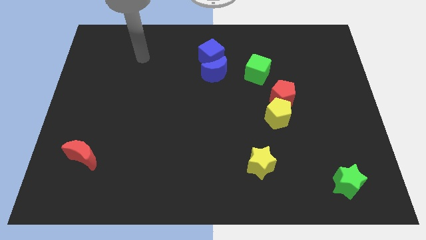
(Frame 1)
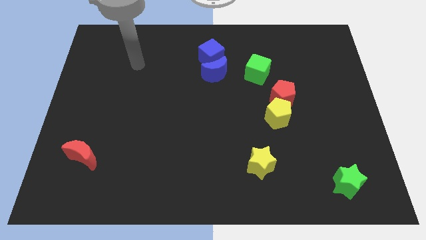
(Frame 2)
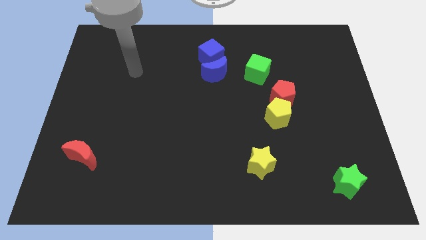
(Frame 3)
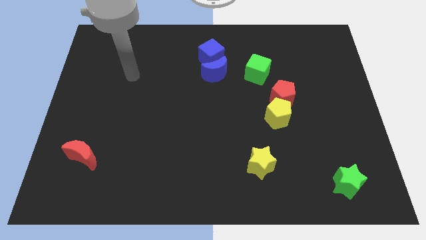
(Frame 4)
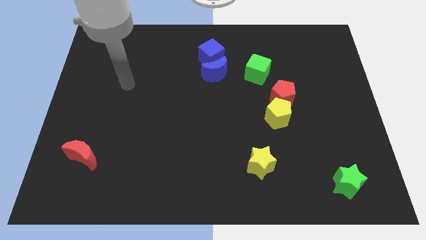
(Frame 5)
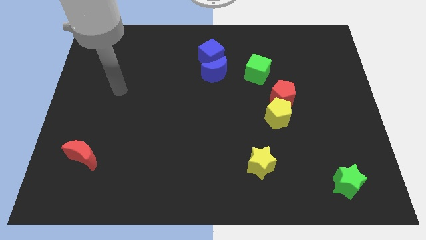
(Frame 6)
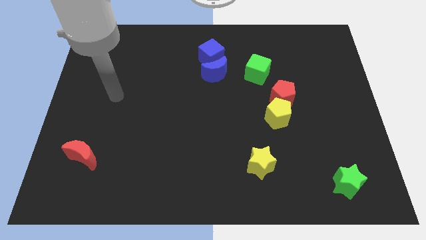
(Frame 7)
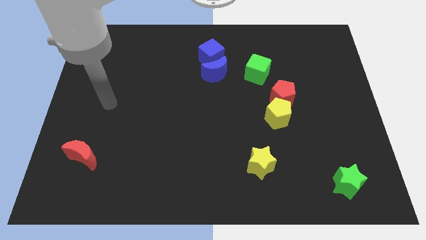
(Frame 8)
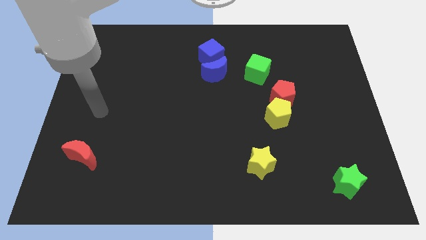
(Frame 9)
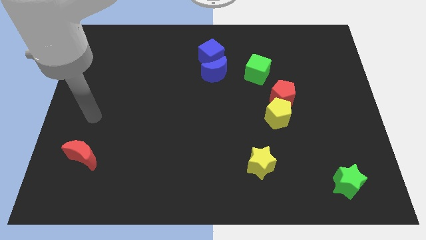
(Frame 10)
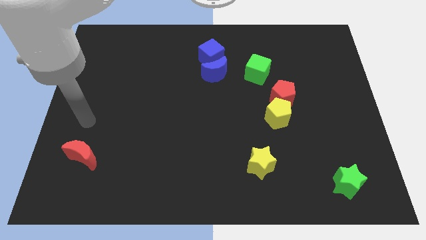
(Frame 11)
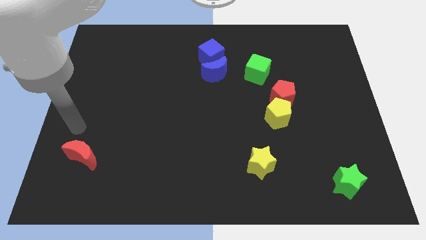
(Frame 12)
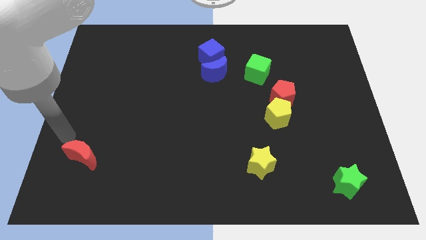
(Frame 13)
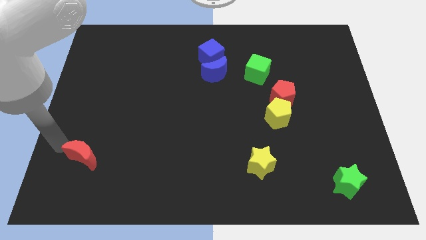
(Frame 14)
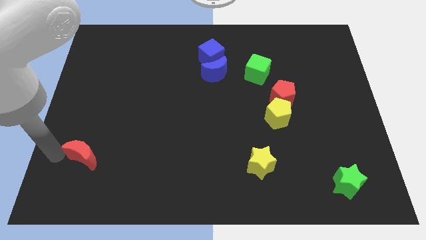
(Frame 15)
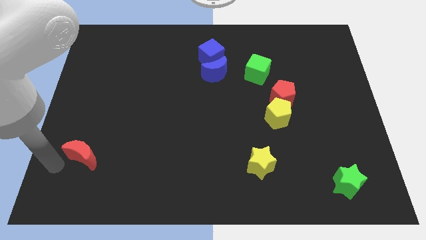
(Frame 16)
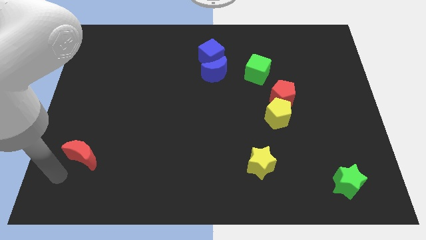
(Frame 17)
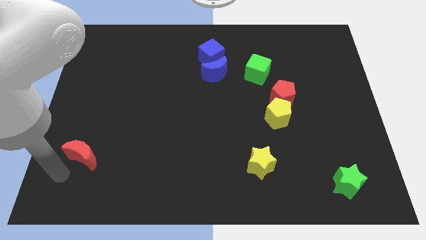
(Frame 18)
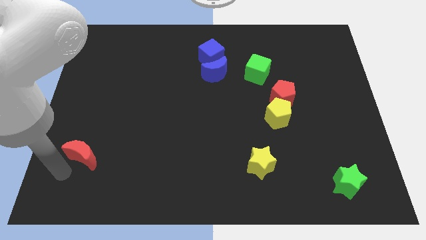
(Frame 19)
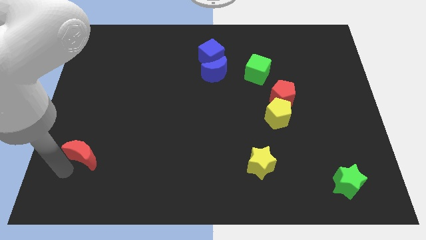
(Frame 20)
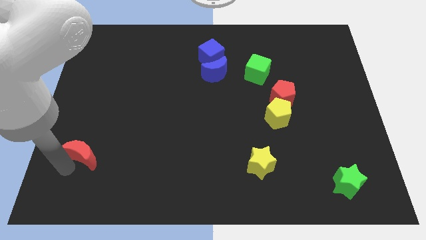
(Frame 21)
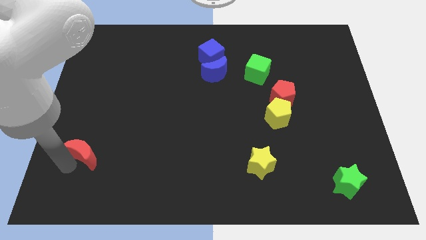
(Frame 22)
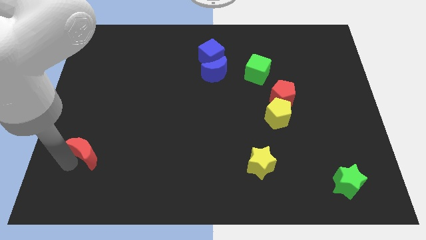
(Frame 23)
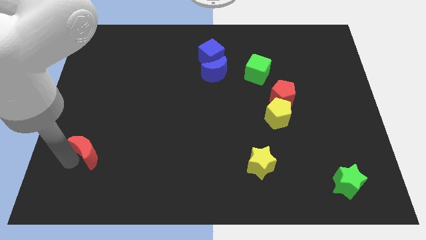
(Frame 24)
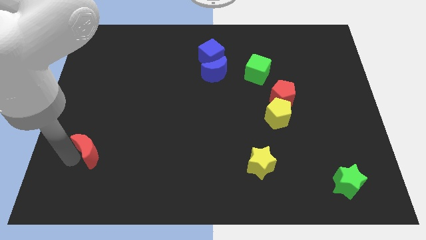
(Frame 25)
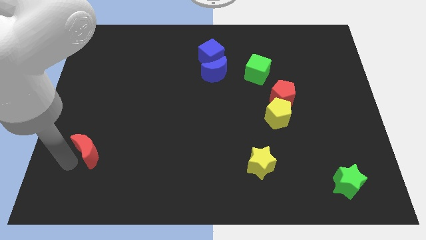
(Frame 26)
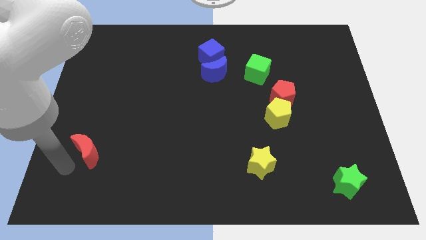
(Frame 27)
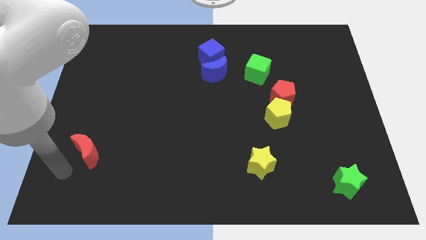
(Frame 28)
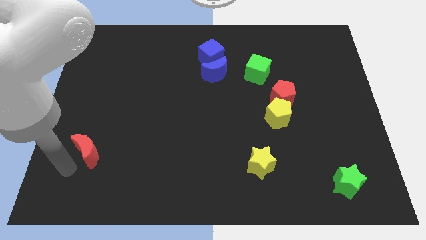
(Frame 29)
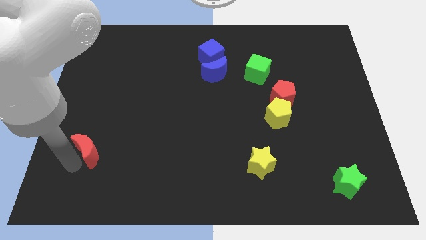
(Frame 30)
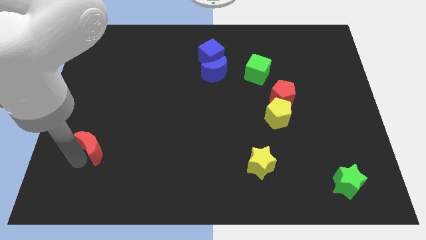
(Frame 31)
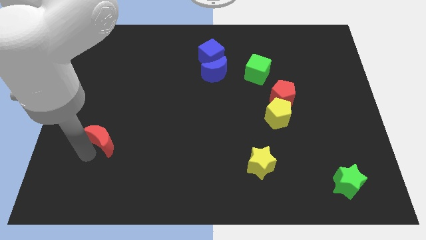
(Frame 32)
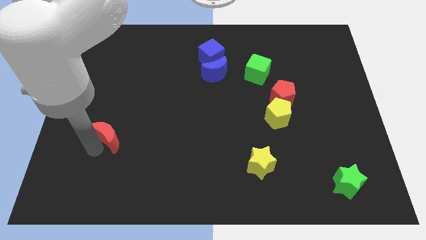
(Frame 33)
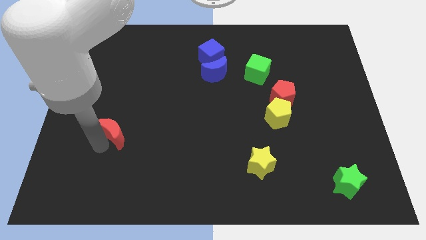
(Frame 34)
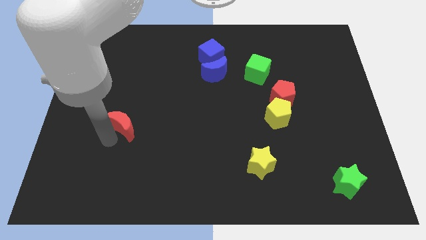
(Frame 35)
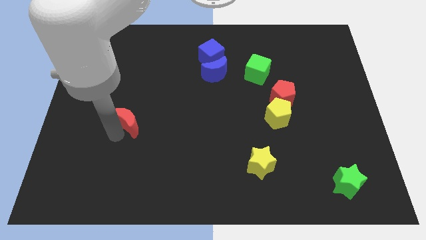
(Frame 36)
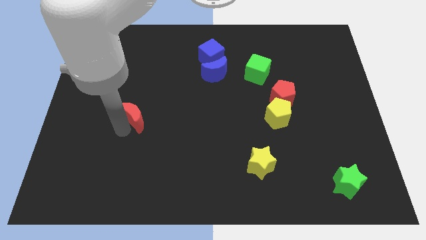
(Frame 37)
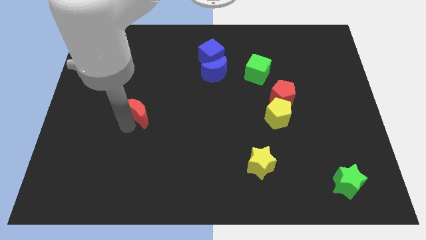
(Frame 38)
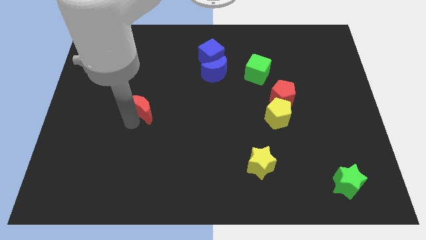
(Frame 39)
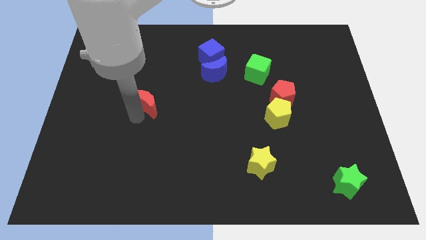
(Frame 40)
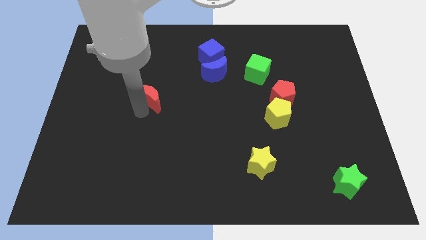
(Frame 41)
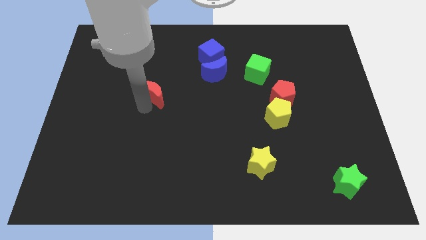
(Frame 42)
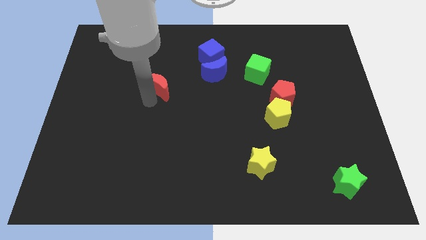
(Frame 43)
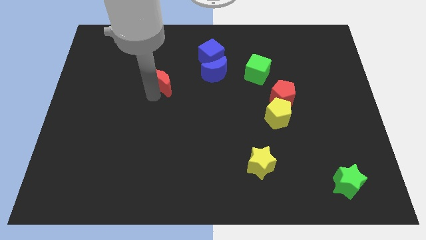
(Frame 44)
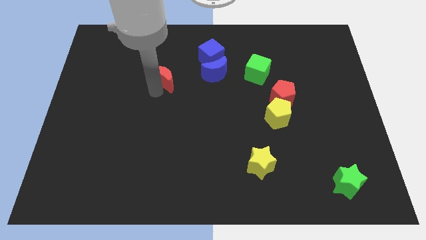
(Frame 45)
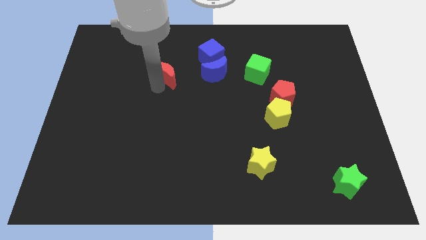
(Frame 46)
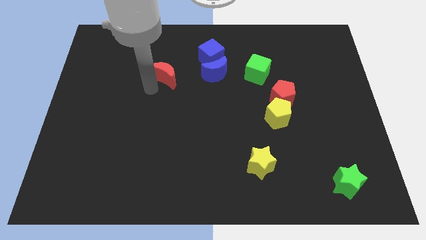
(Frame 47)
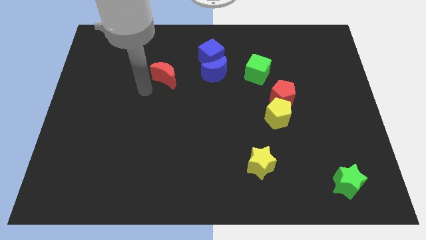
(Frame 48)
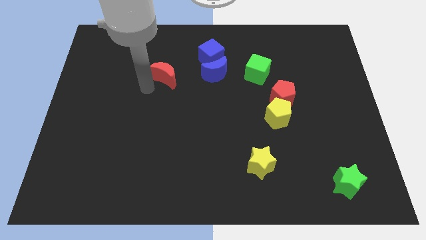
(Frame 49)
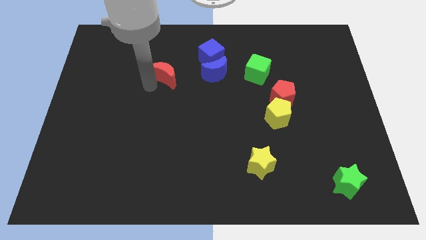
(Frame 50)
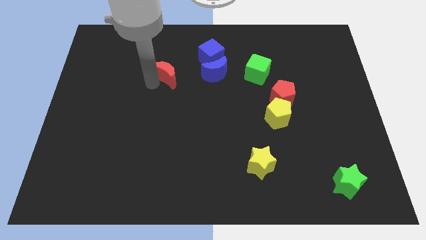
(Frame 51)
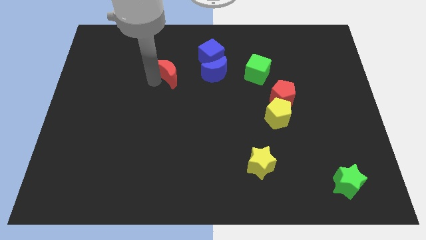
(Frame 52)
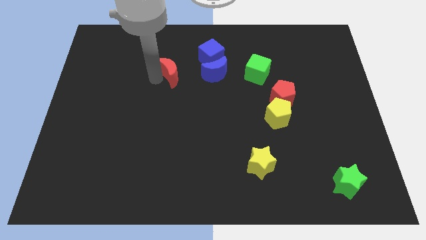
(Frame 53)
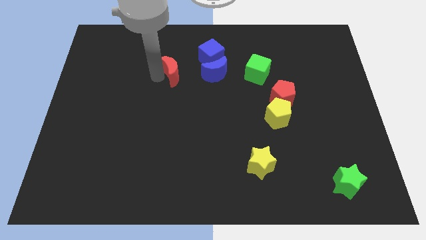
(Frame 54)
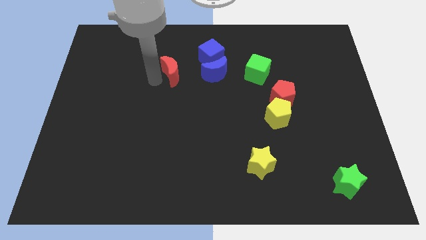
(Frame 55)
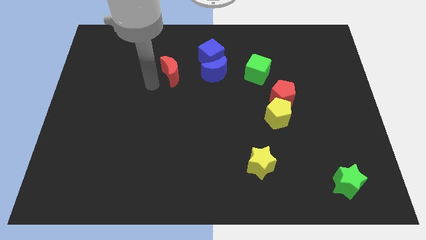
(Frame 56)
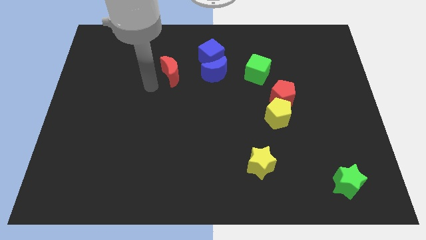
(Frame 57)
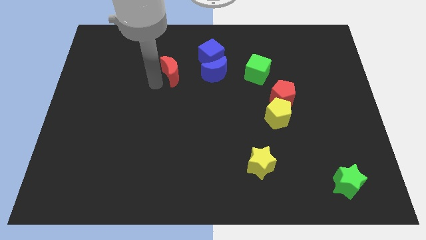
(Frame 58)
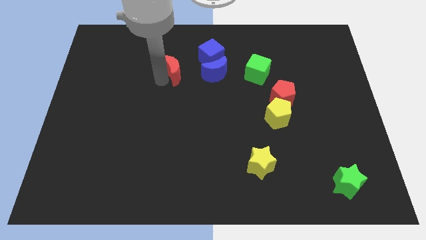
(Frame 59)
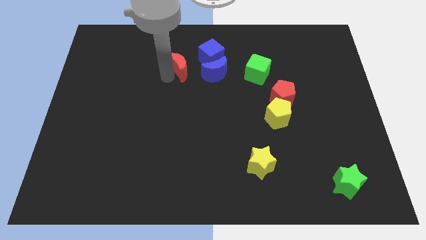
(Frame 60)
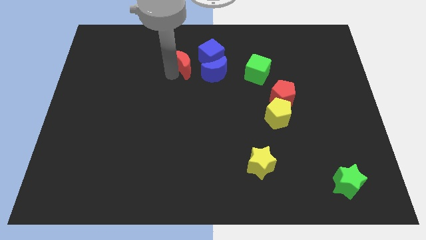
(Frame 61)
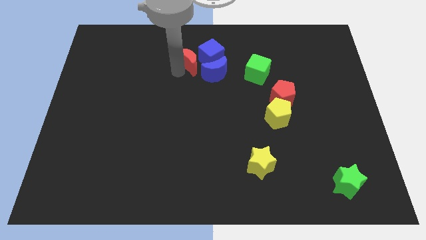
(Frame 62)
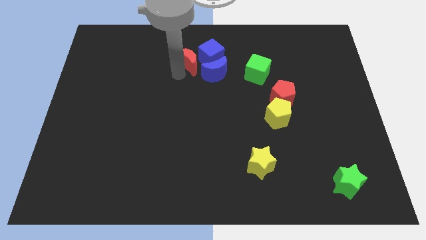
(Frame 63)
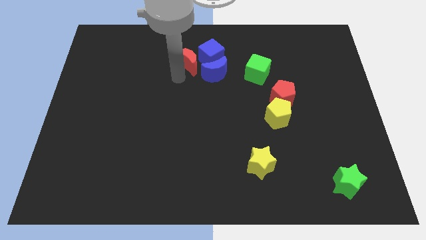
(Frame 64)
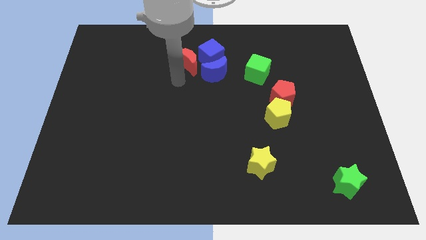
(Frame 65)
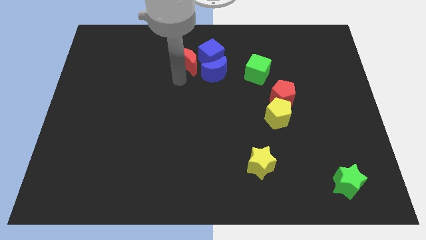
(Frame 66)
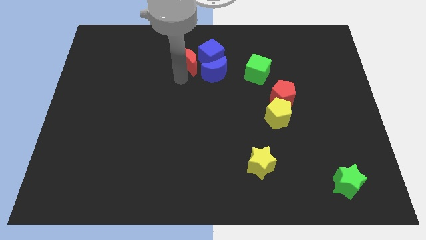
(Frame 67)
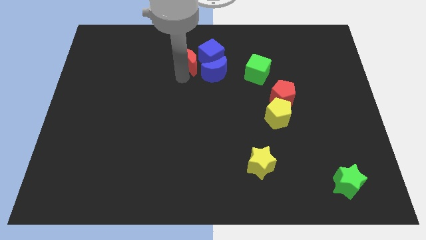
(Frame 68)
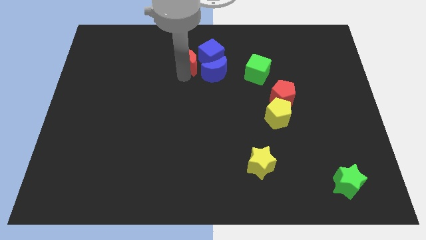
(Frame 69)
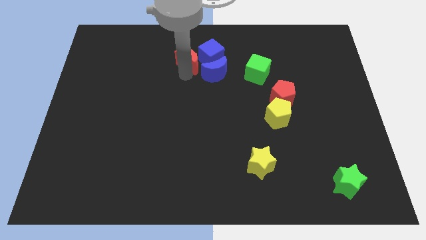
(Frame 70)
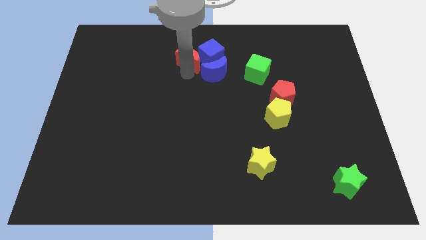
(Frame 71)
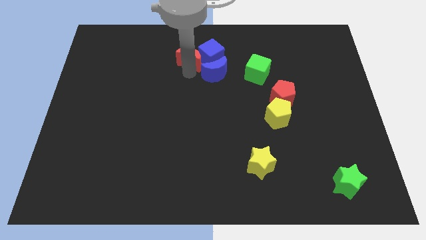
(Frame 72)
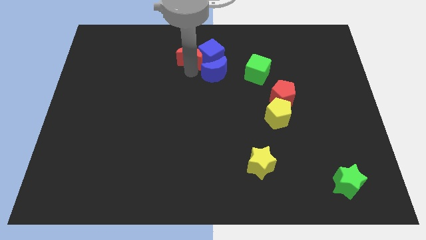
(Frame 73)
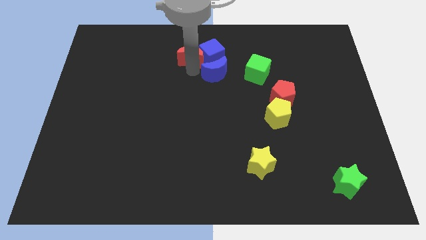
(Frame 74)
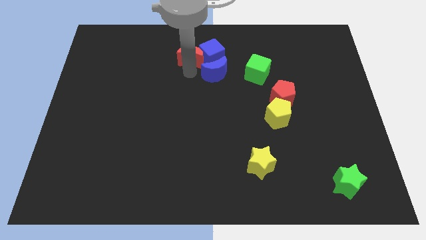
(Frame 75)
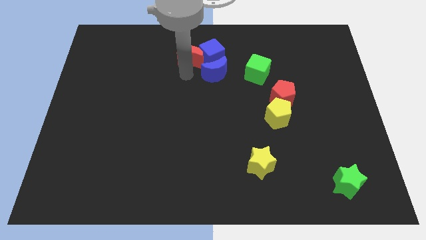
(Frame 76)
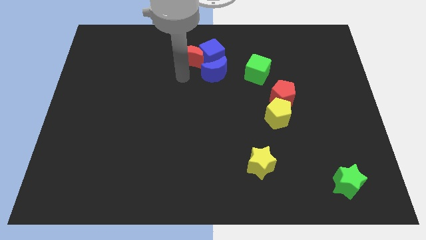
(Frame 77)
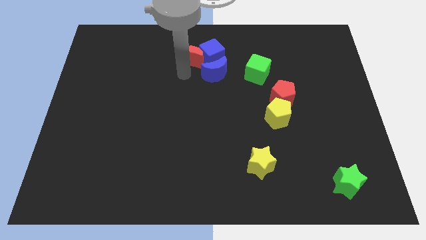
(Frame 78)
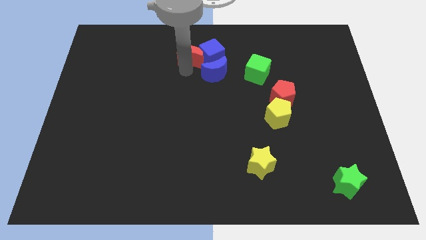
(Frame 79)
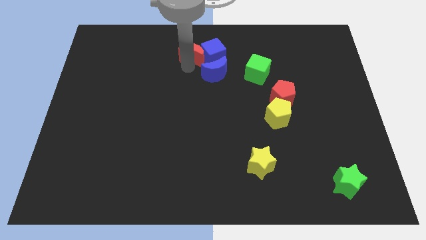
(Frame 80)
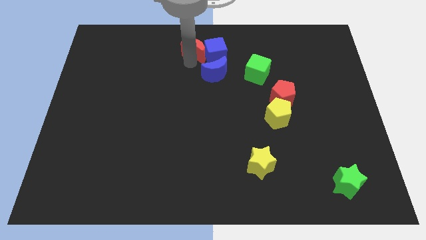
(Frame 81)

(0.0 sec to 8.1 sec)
move the red moon to the top
